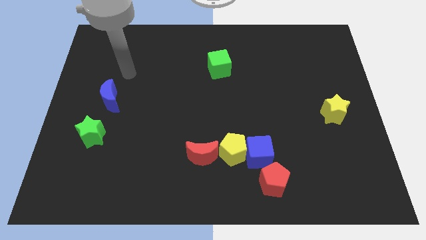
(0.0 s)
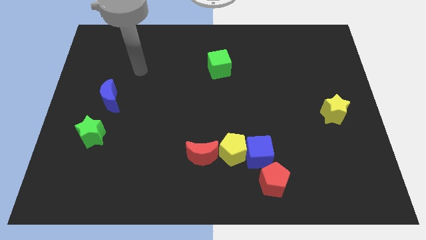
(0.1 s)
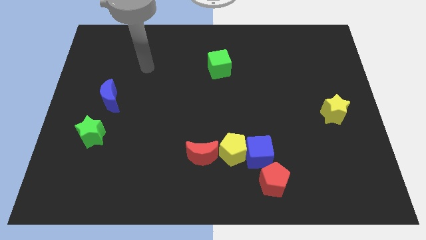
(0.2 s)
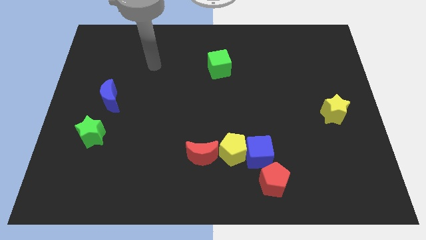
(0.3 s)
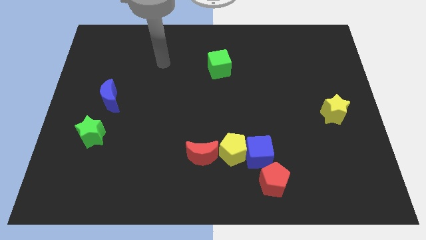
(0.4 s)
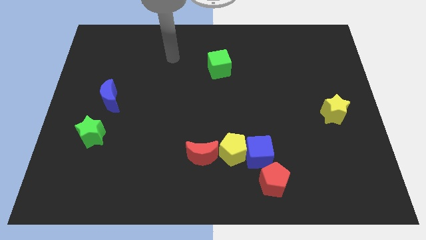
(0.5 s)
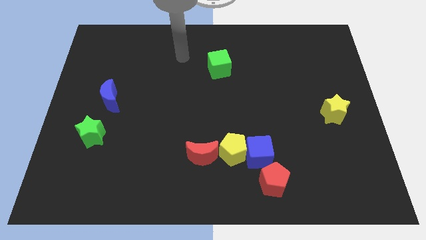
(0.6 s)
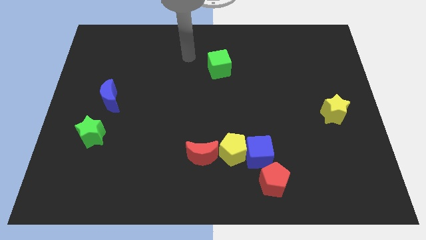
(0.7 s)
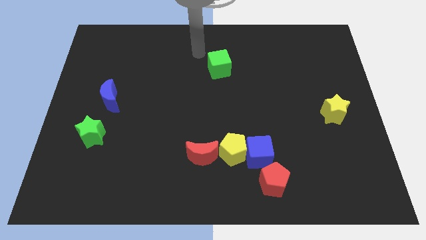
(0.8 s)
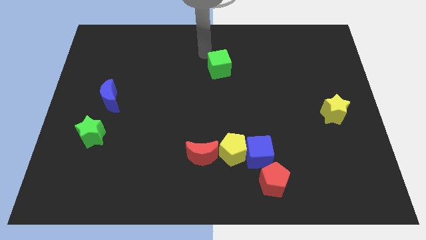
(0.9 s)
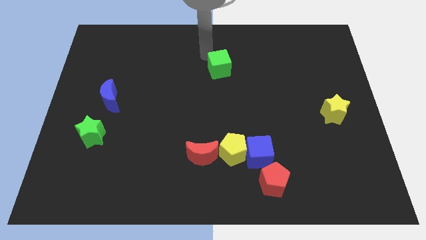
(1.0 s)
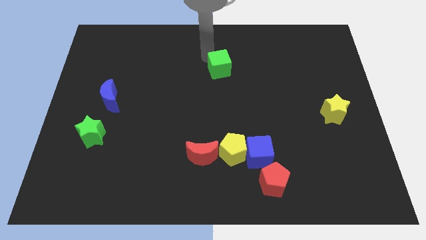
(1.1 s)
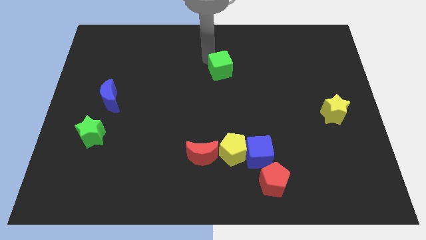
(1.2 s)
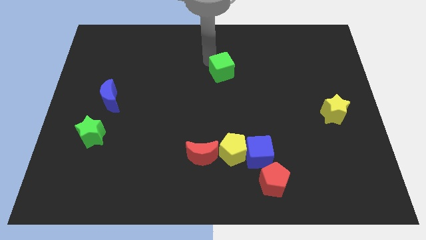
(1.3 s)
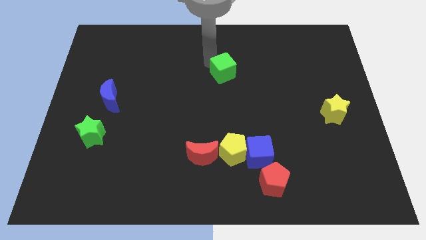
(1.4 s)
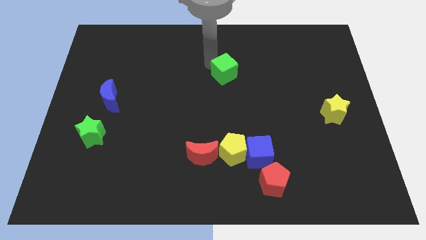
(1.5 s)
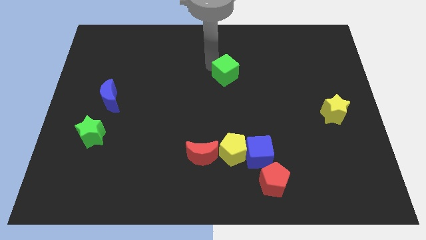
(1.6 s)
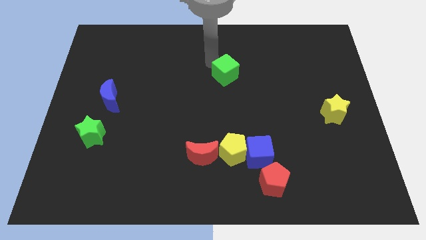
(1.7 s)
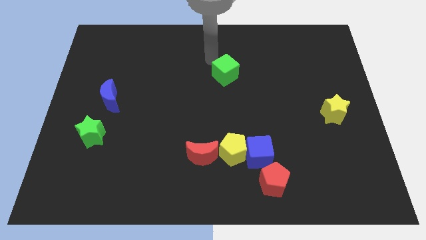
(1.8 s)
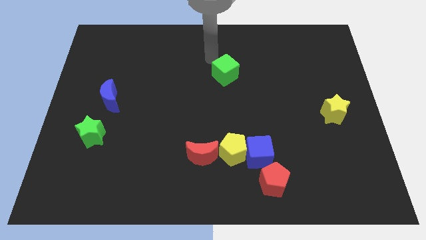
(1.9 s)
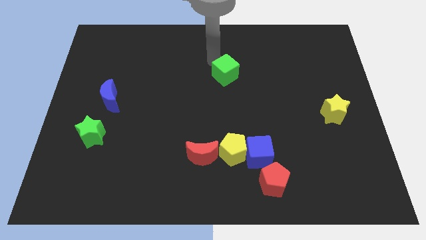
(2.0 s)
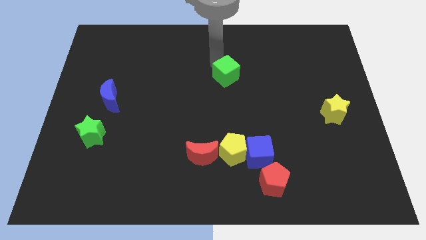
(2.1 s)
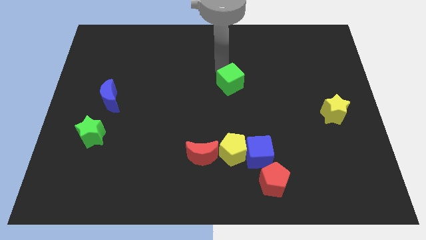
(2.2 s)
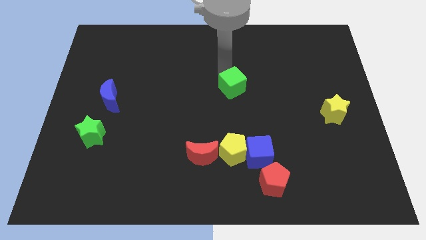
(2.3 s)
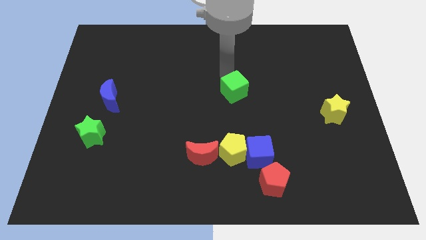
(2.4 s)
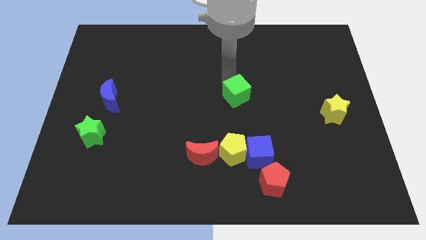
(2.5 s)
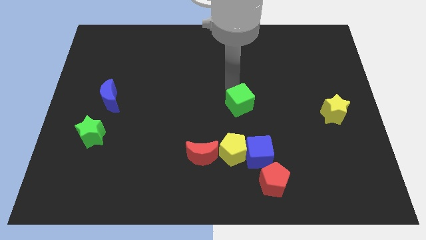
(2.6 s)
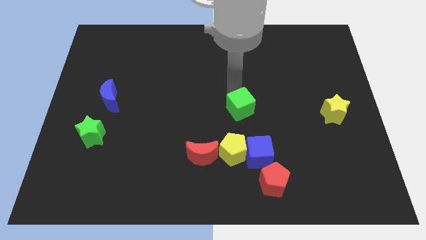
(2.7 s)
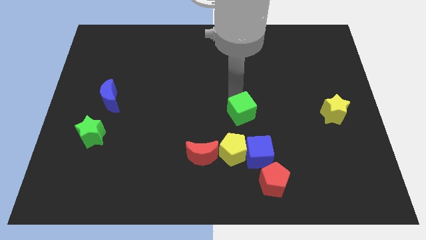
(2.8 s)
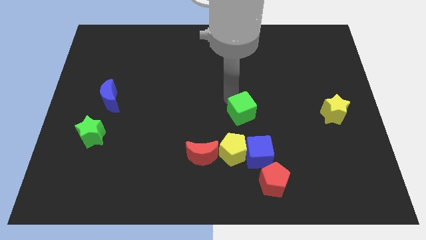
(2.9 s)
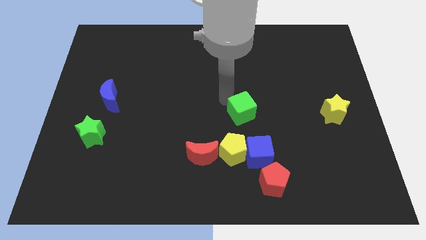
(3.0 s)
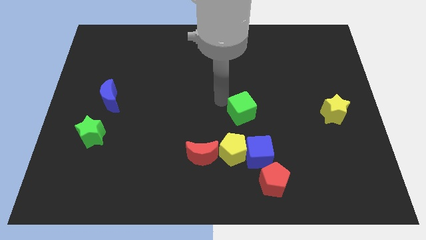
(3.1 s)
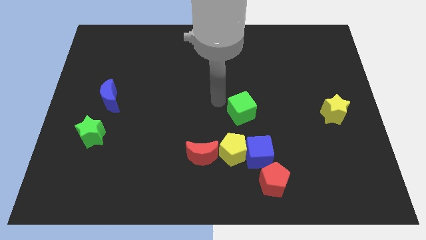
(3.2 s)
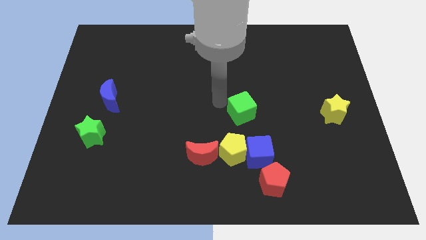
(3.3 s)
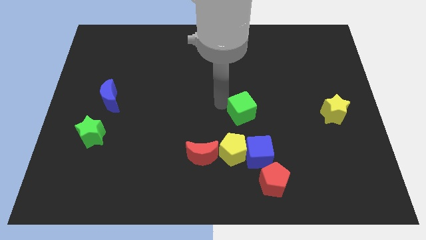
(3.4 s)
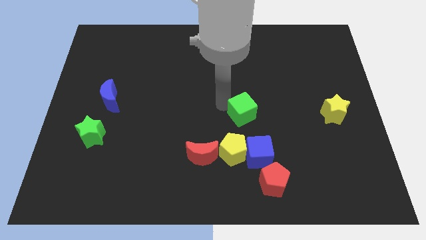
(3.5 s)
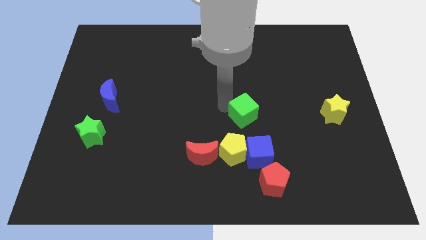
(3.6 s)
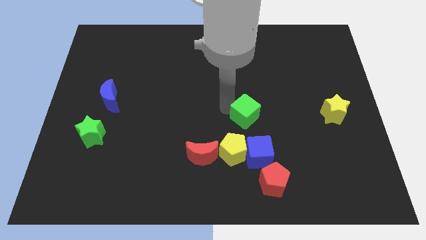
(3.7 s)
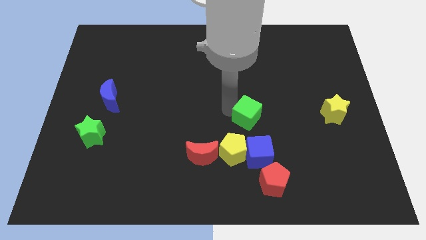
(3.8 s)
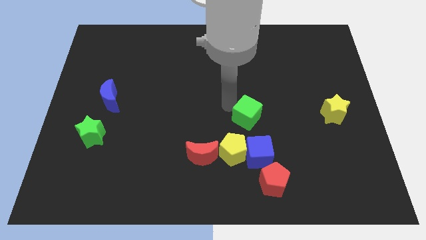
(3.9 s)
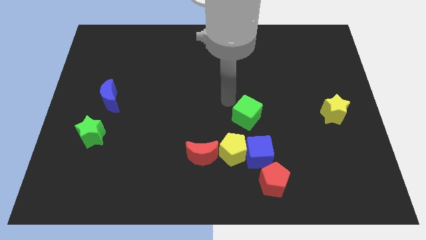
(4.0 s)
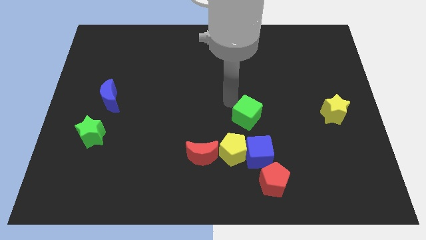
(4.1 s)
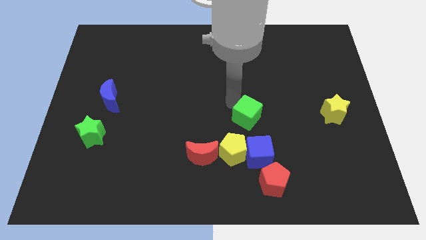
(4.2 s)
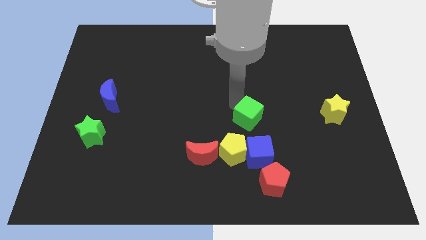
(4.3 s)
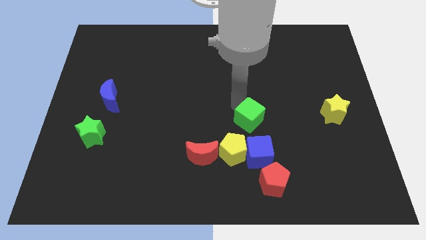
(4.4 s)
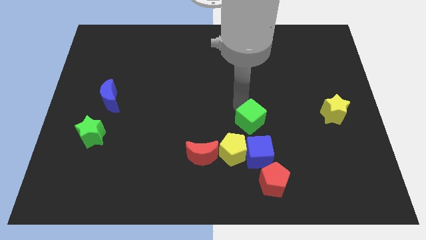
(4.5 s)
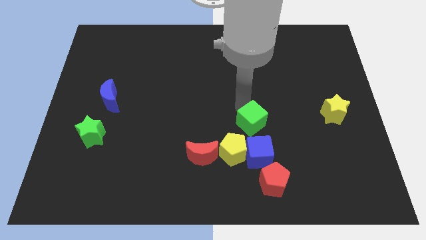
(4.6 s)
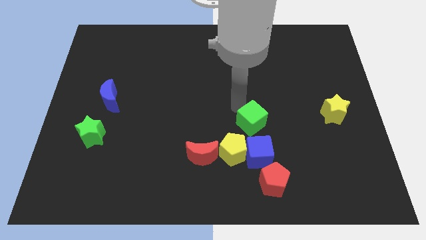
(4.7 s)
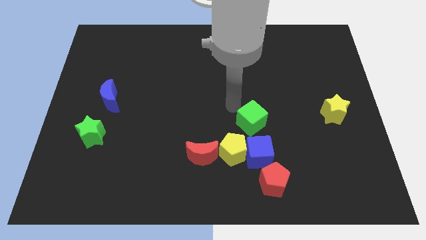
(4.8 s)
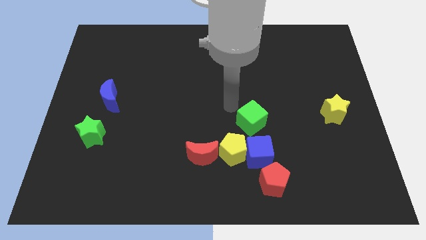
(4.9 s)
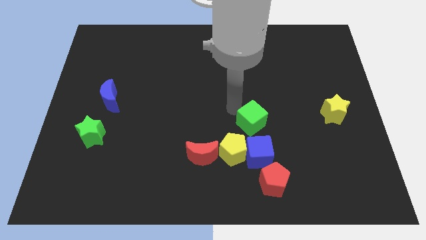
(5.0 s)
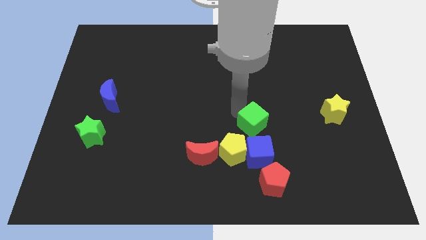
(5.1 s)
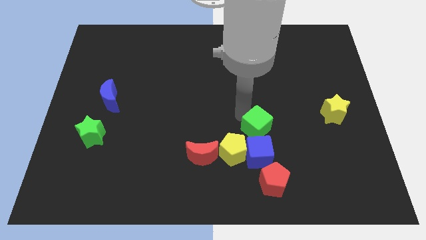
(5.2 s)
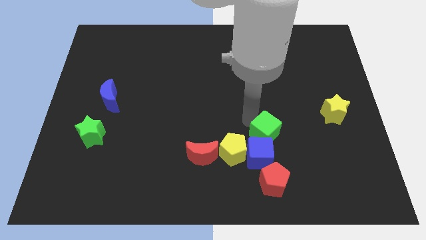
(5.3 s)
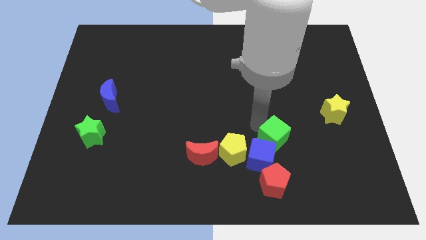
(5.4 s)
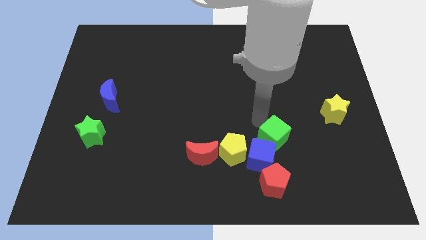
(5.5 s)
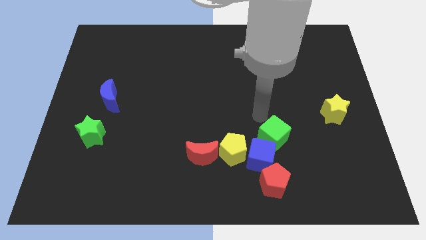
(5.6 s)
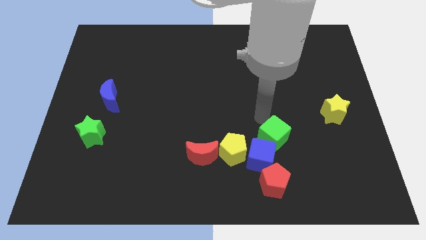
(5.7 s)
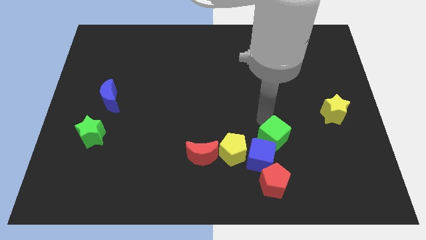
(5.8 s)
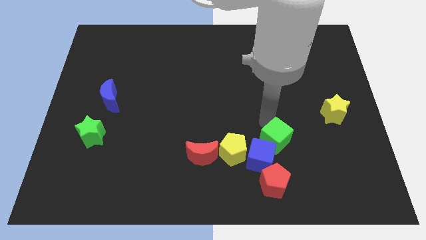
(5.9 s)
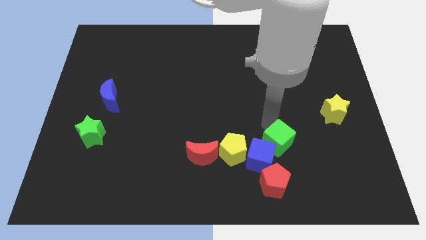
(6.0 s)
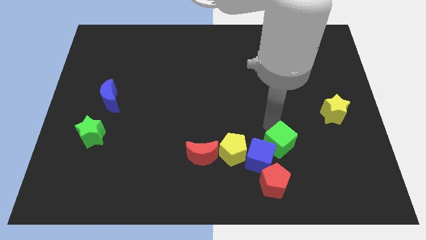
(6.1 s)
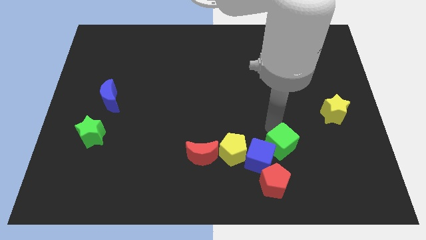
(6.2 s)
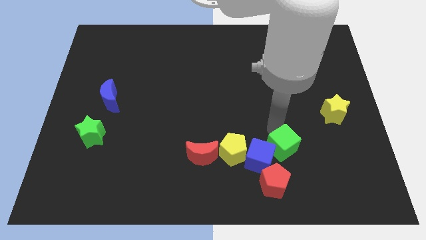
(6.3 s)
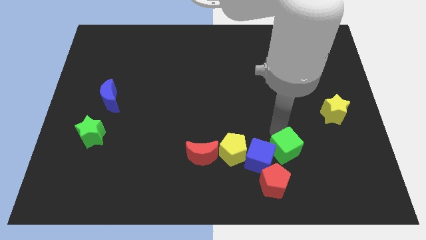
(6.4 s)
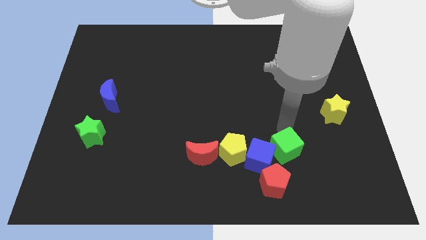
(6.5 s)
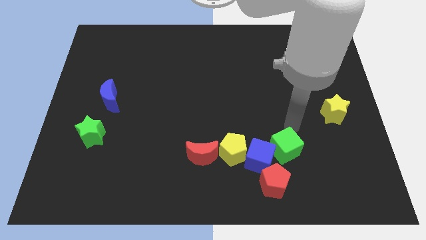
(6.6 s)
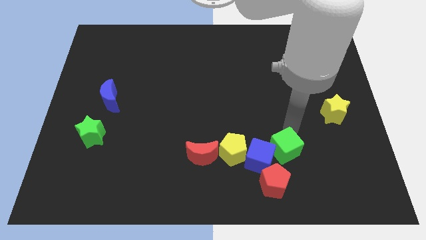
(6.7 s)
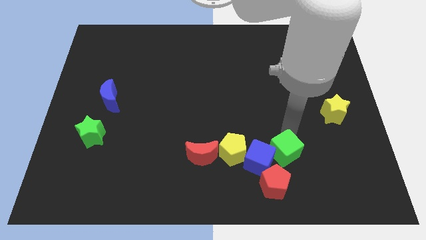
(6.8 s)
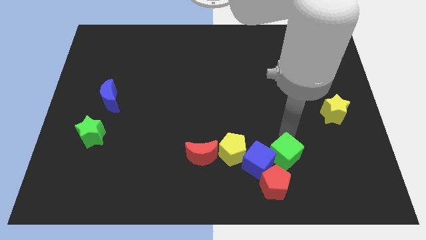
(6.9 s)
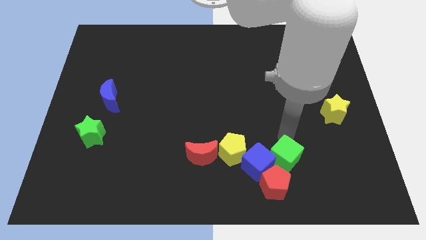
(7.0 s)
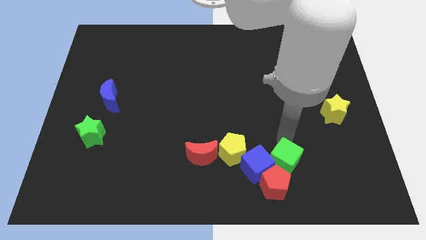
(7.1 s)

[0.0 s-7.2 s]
move the green cube towards the red pentagon
